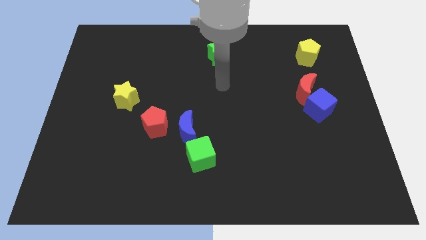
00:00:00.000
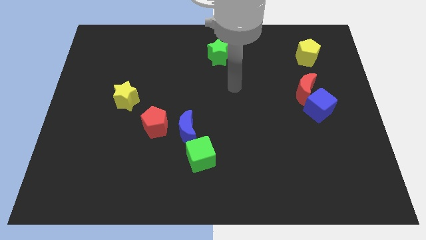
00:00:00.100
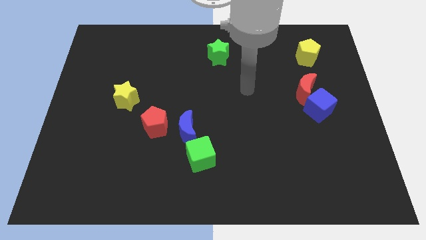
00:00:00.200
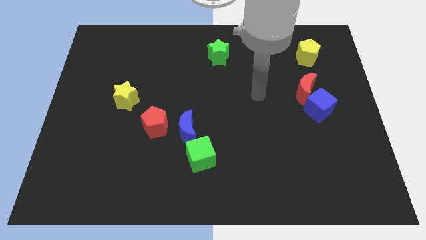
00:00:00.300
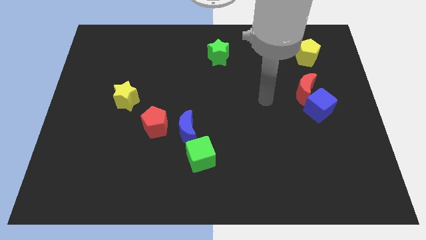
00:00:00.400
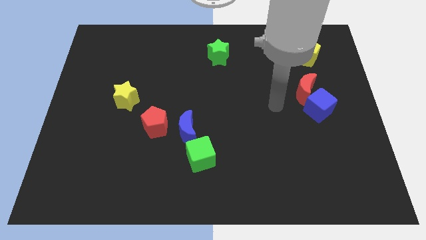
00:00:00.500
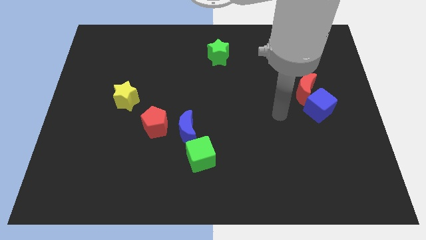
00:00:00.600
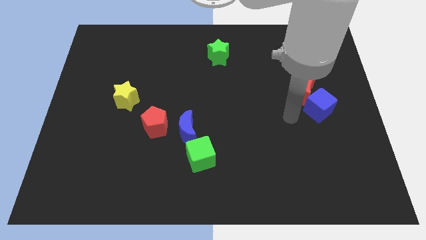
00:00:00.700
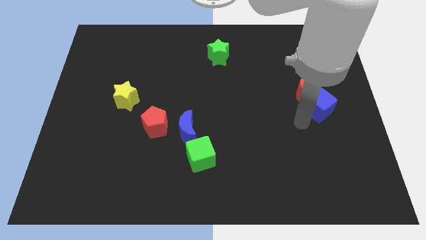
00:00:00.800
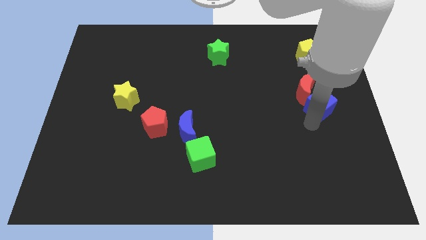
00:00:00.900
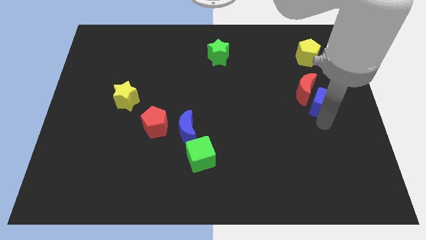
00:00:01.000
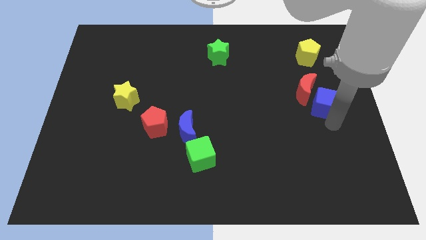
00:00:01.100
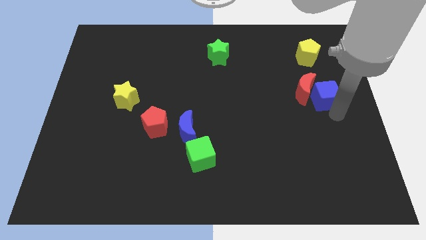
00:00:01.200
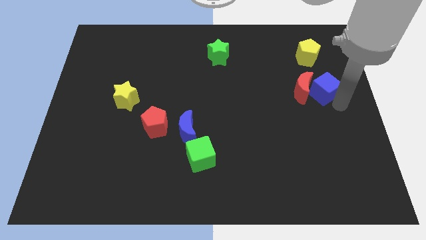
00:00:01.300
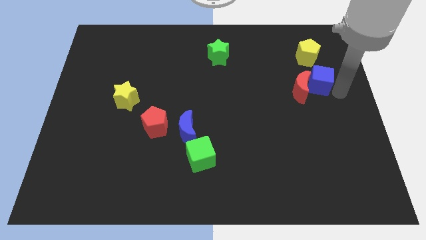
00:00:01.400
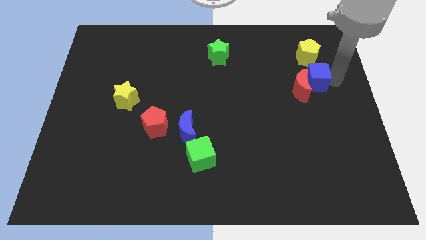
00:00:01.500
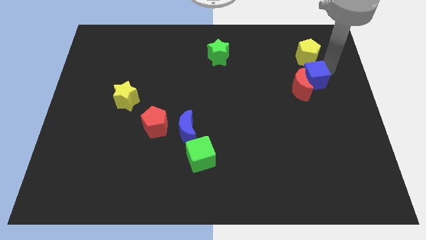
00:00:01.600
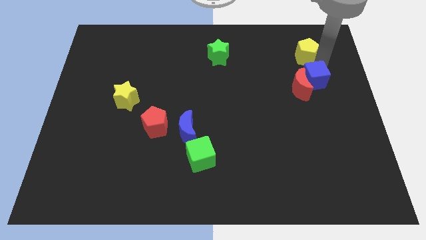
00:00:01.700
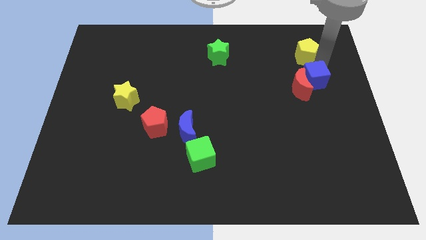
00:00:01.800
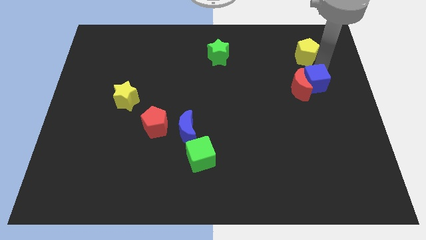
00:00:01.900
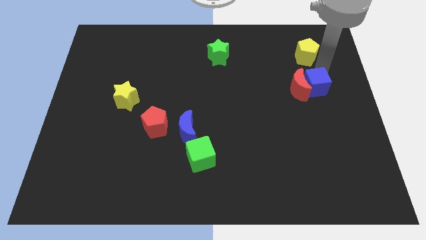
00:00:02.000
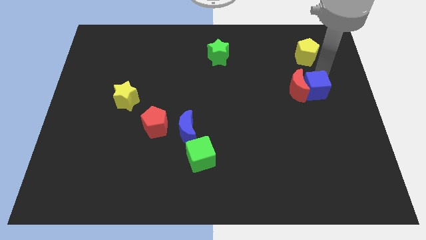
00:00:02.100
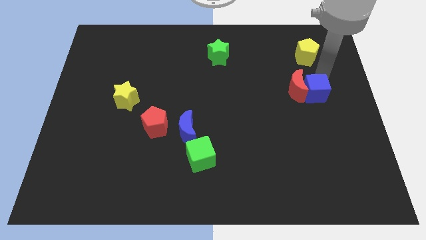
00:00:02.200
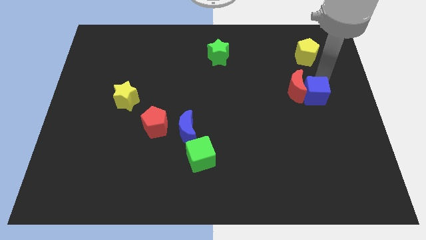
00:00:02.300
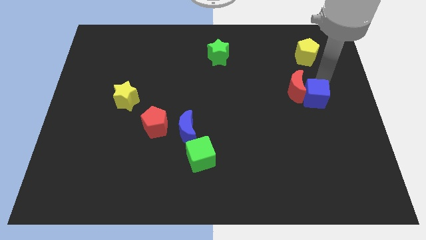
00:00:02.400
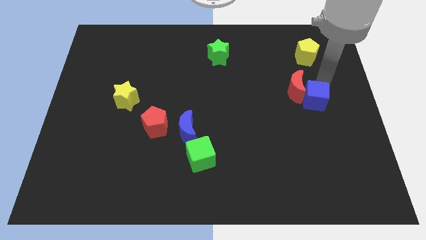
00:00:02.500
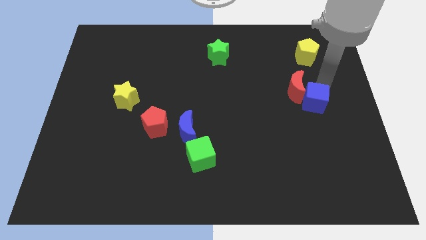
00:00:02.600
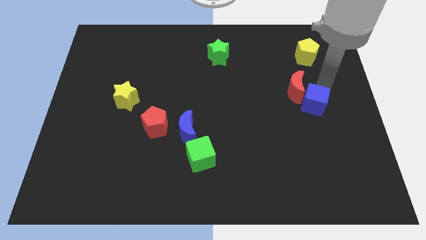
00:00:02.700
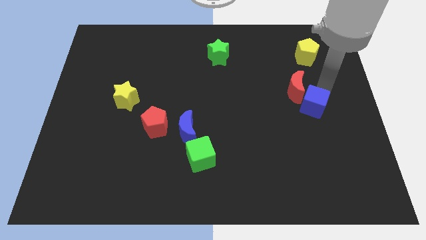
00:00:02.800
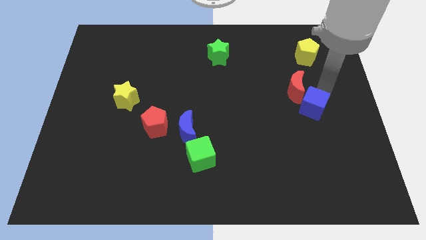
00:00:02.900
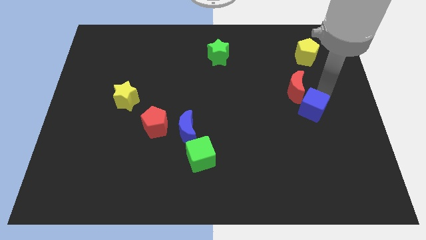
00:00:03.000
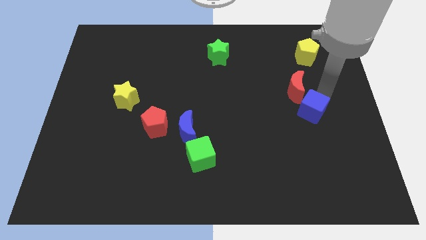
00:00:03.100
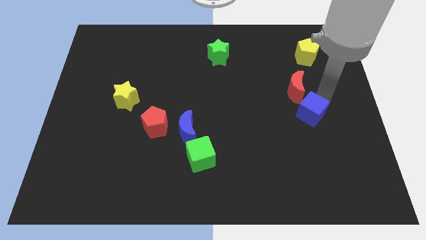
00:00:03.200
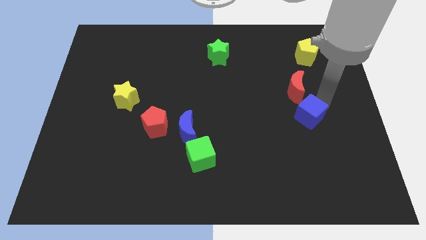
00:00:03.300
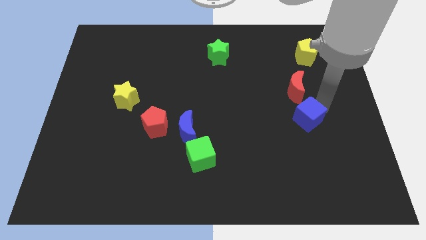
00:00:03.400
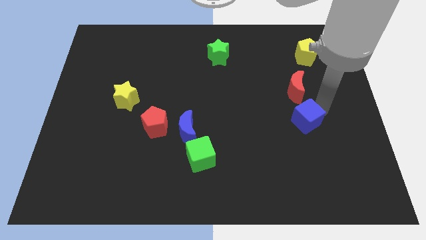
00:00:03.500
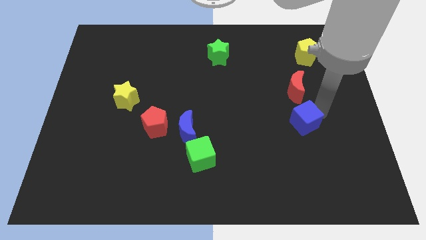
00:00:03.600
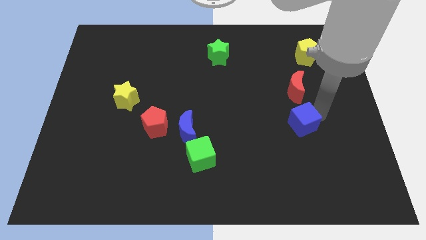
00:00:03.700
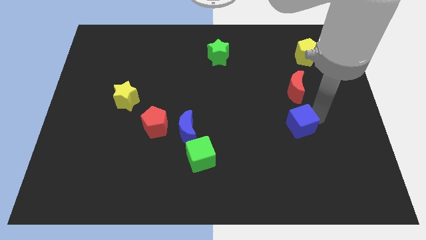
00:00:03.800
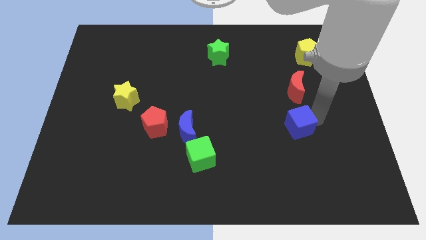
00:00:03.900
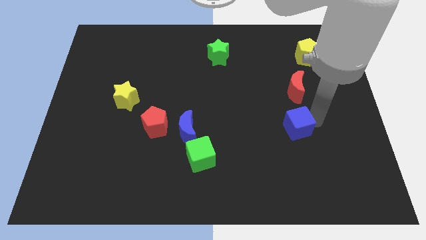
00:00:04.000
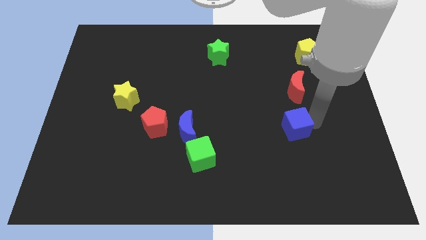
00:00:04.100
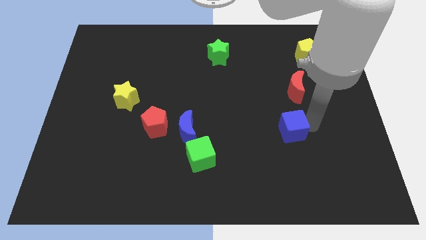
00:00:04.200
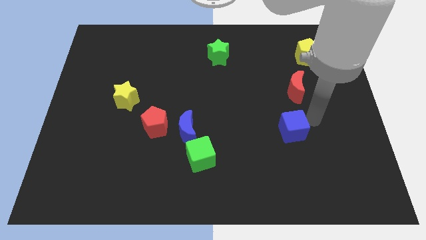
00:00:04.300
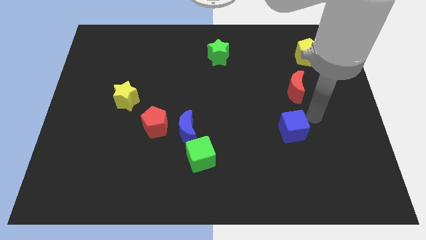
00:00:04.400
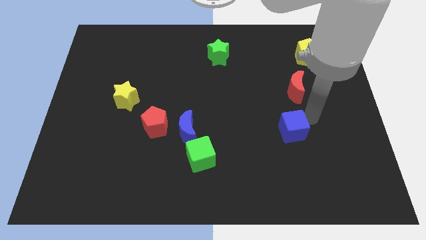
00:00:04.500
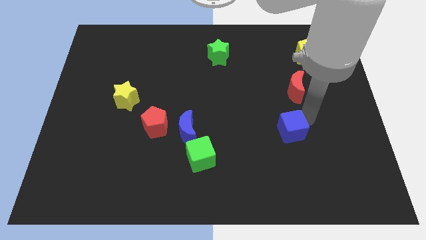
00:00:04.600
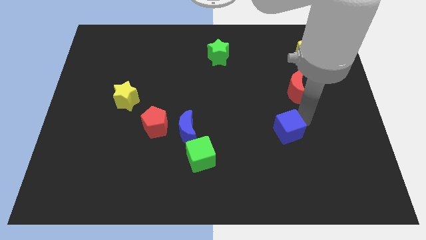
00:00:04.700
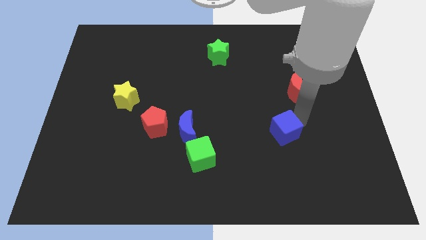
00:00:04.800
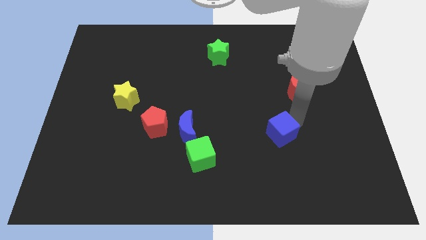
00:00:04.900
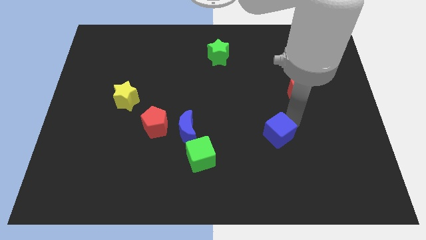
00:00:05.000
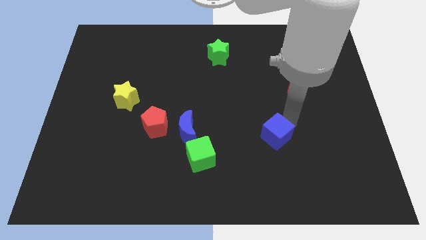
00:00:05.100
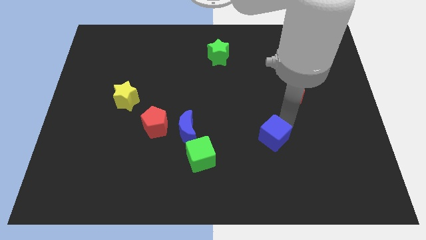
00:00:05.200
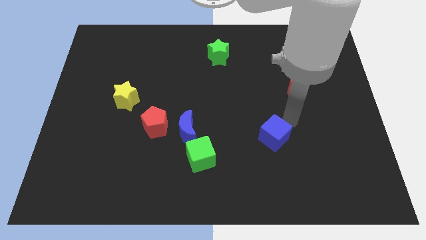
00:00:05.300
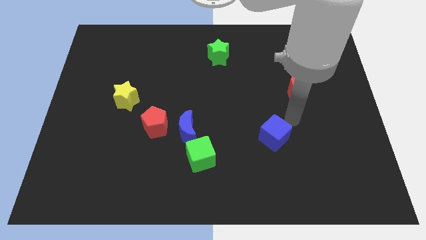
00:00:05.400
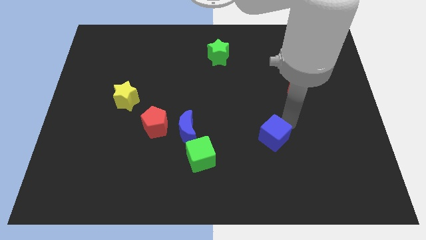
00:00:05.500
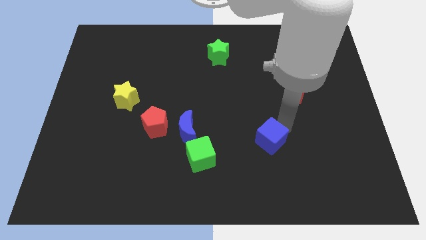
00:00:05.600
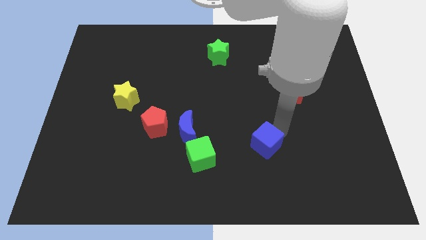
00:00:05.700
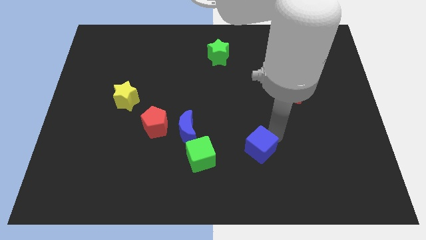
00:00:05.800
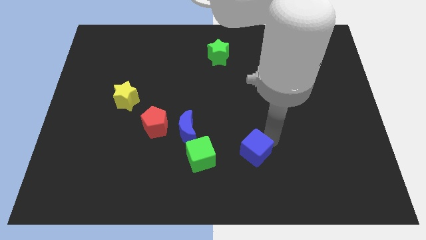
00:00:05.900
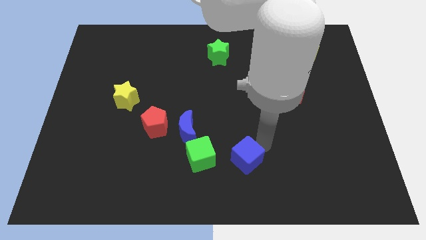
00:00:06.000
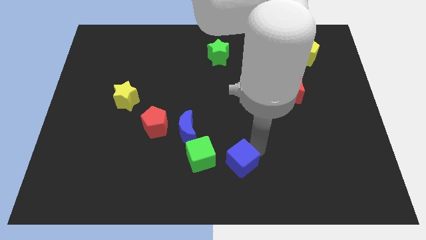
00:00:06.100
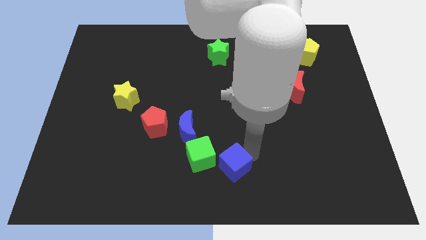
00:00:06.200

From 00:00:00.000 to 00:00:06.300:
put the blue cube to the bottom right of the green cube

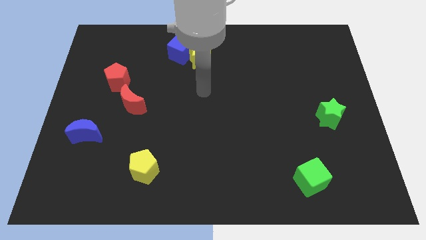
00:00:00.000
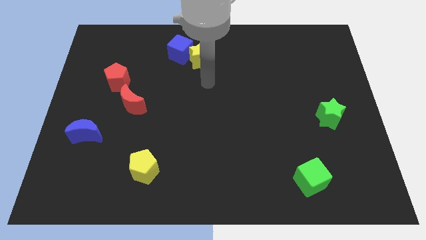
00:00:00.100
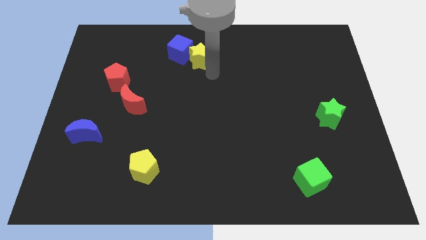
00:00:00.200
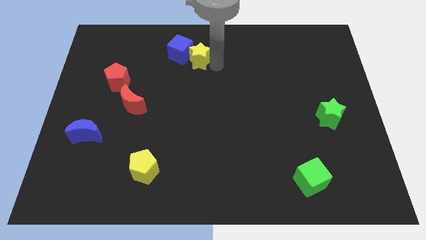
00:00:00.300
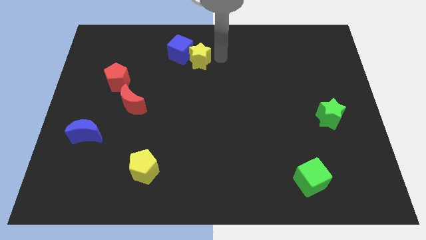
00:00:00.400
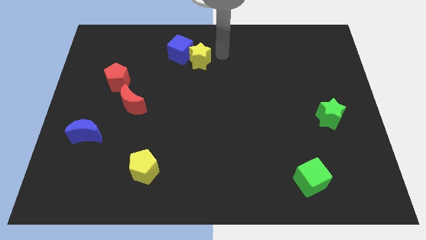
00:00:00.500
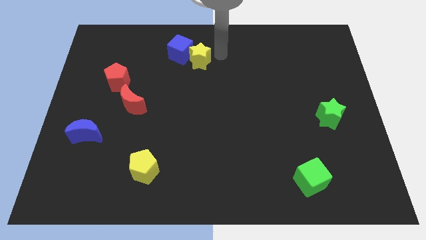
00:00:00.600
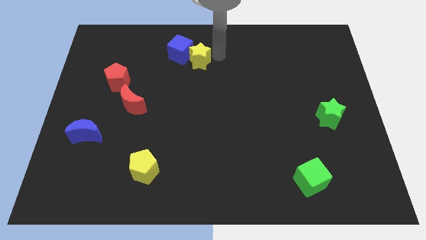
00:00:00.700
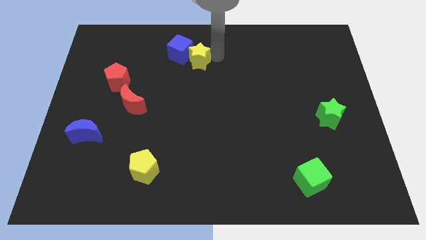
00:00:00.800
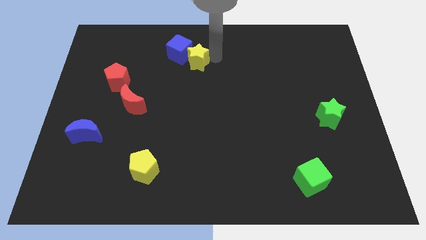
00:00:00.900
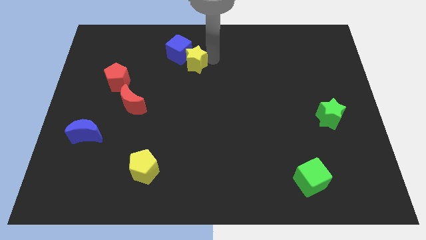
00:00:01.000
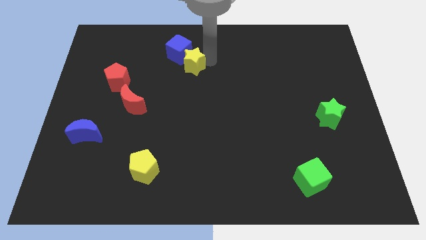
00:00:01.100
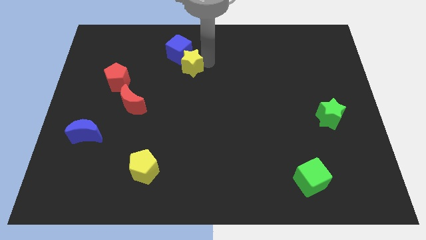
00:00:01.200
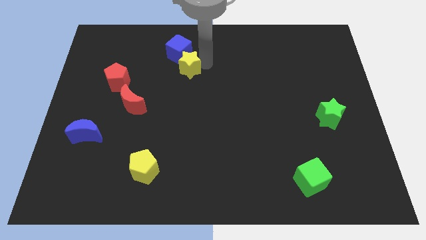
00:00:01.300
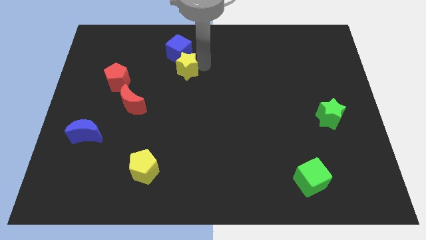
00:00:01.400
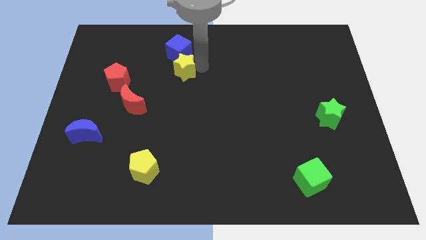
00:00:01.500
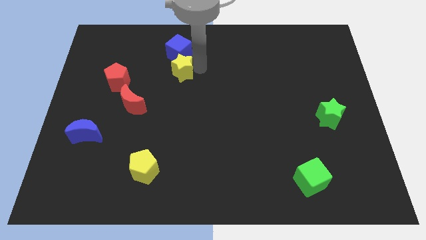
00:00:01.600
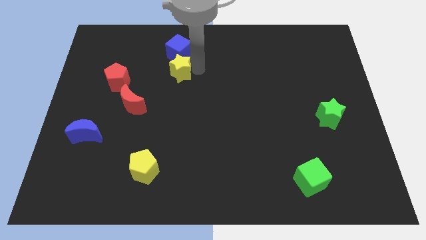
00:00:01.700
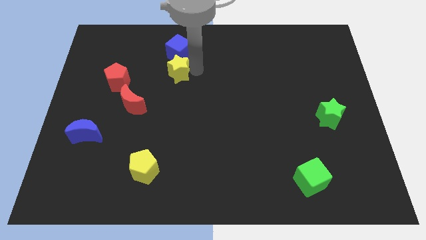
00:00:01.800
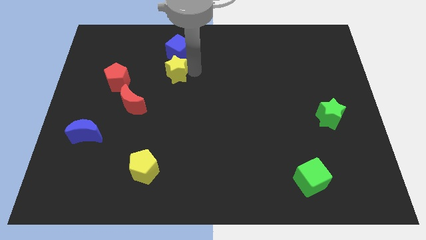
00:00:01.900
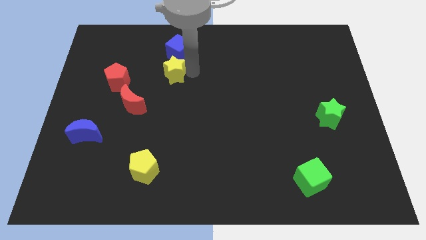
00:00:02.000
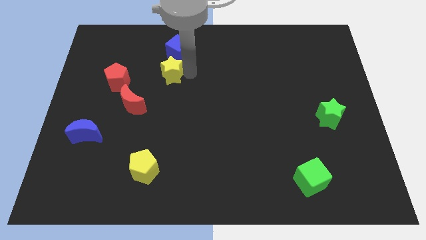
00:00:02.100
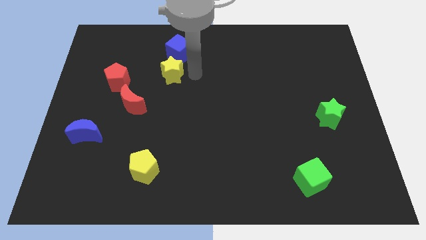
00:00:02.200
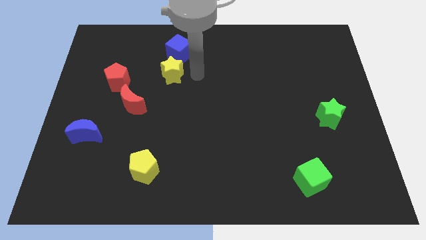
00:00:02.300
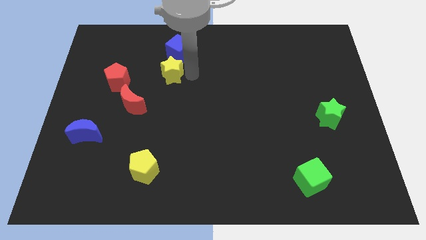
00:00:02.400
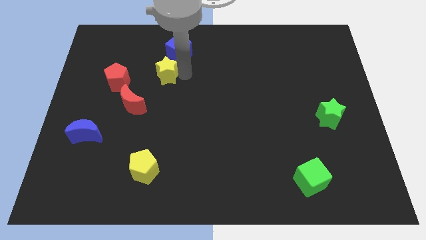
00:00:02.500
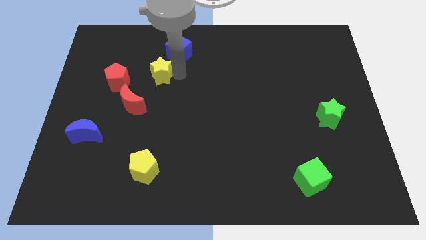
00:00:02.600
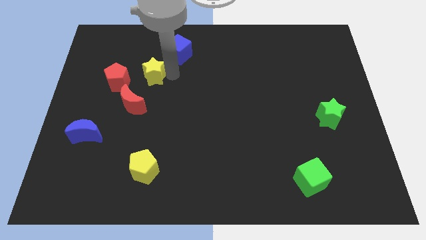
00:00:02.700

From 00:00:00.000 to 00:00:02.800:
move the yellow star to the top side of the red moon
